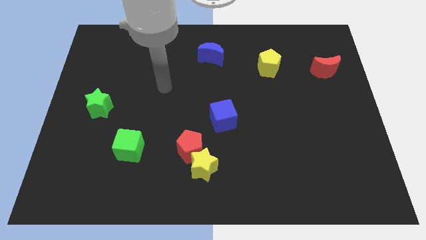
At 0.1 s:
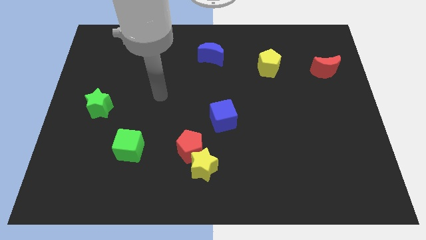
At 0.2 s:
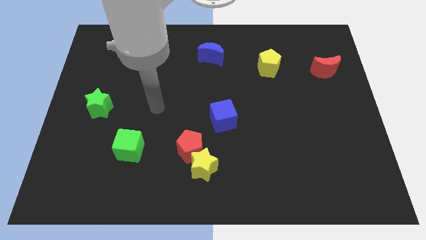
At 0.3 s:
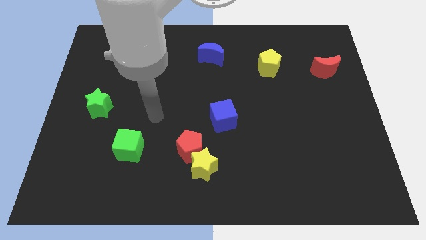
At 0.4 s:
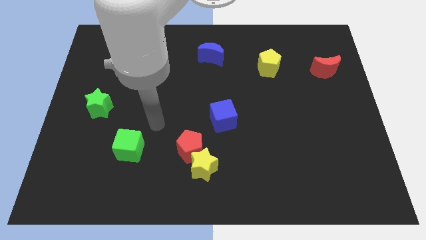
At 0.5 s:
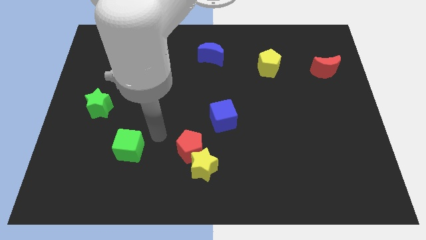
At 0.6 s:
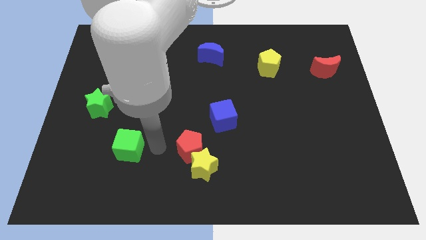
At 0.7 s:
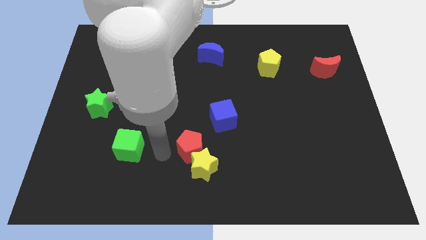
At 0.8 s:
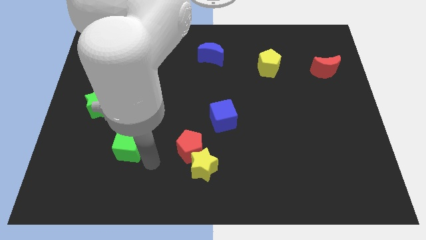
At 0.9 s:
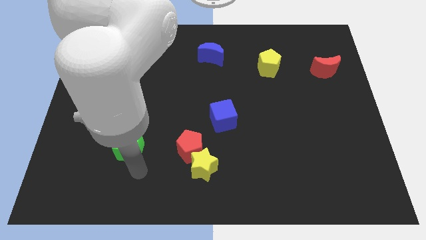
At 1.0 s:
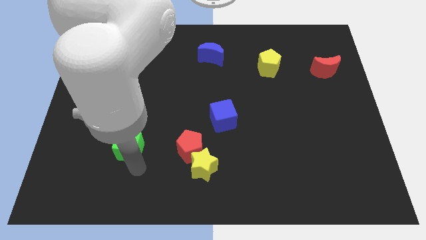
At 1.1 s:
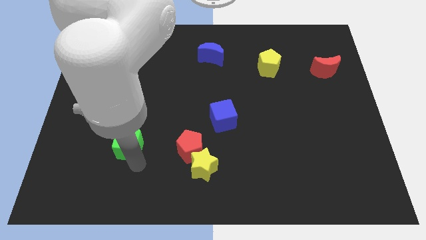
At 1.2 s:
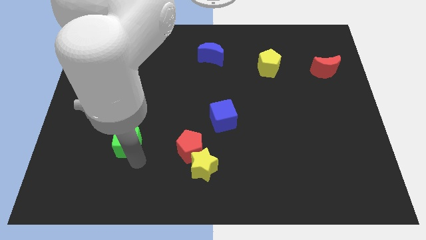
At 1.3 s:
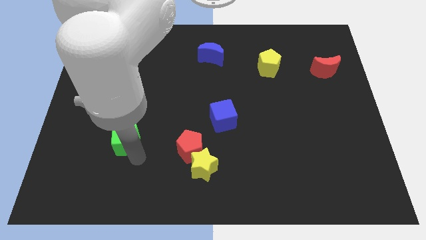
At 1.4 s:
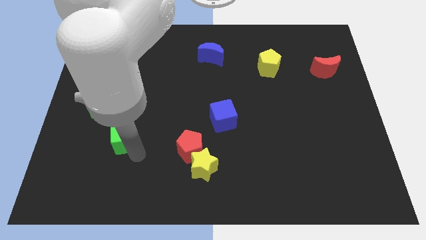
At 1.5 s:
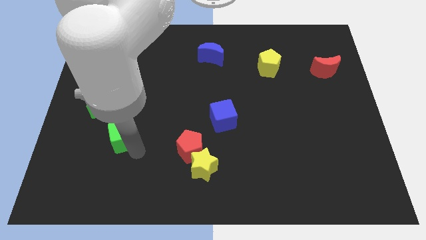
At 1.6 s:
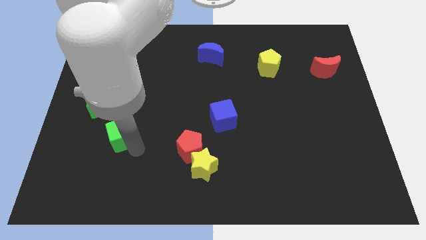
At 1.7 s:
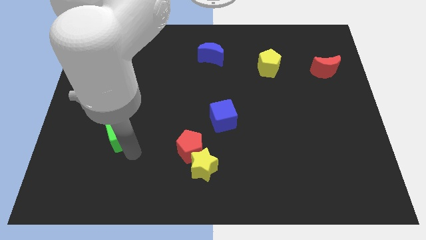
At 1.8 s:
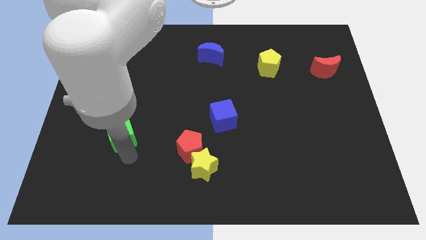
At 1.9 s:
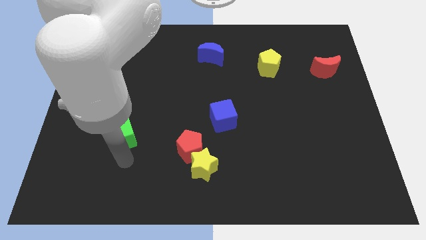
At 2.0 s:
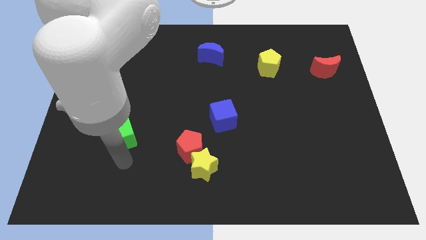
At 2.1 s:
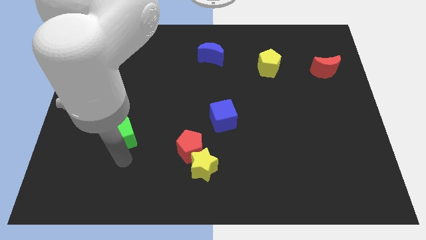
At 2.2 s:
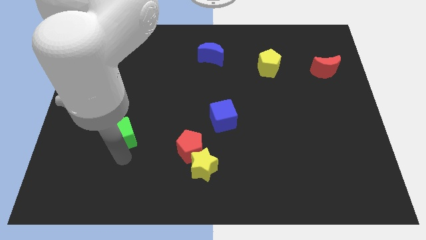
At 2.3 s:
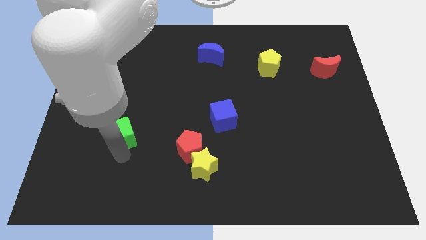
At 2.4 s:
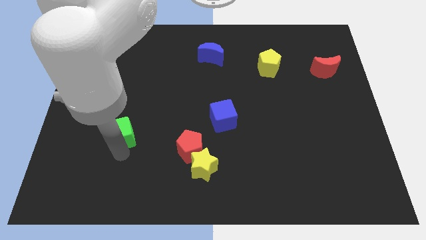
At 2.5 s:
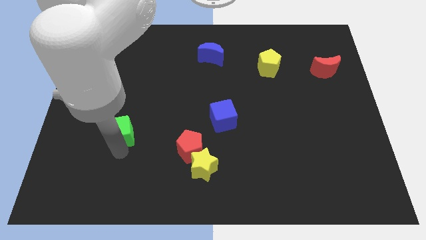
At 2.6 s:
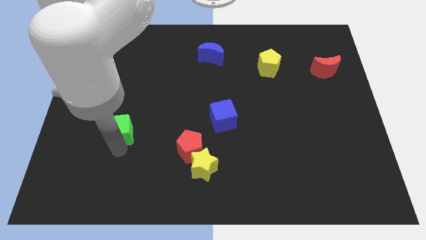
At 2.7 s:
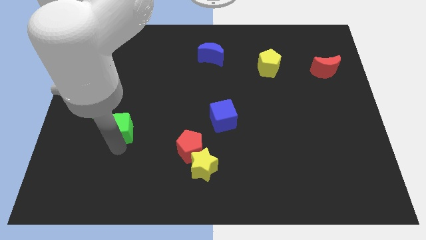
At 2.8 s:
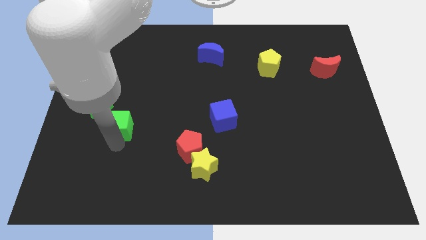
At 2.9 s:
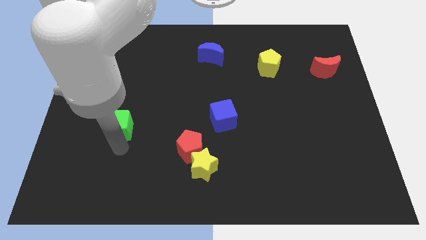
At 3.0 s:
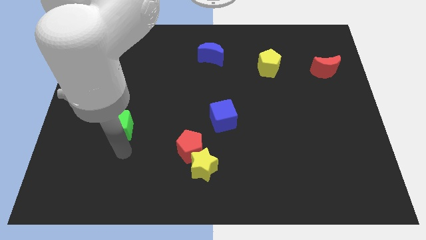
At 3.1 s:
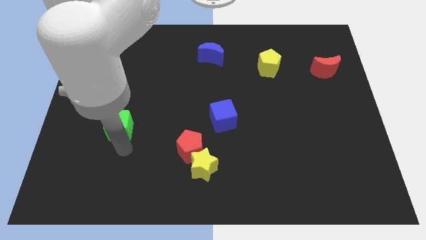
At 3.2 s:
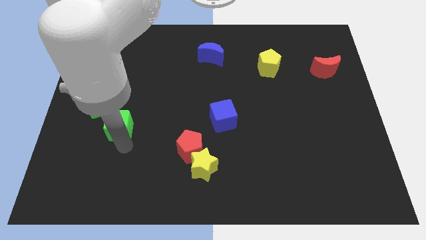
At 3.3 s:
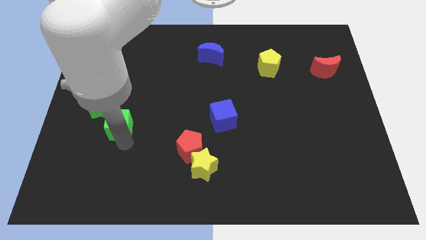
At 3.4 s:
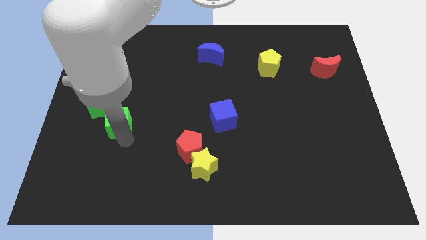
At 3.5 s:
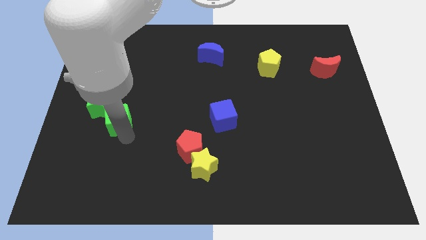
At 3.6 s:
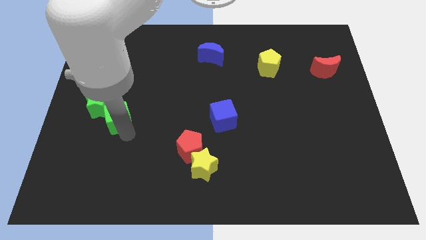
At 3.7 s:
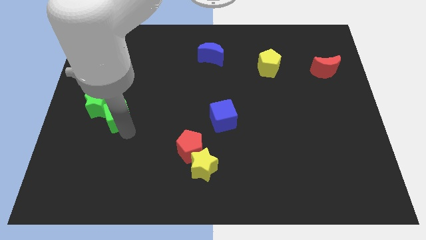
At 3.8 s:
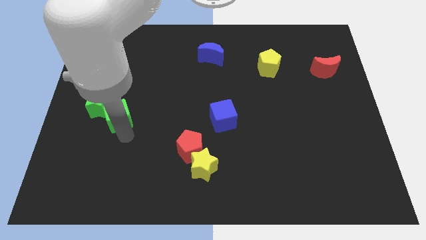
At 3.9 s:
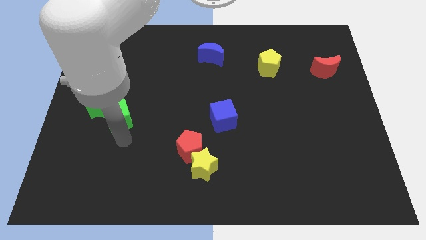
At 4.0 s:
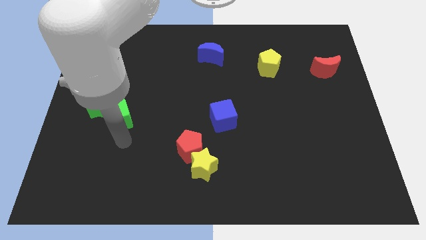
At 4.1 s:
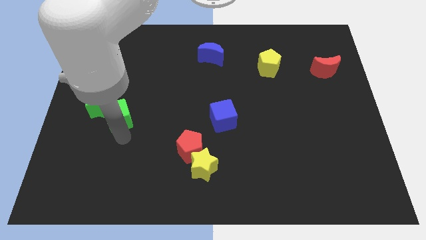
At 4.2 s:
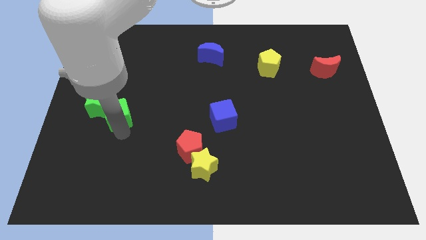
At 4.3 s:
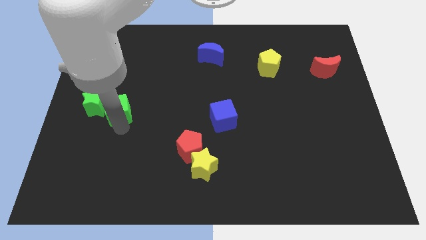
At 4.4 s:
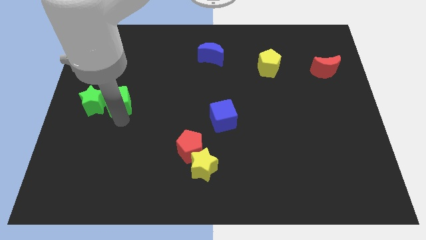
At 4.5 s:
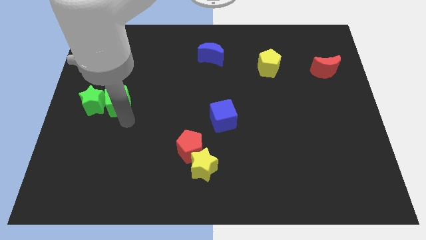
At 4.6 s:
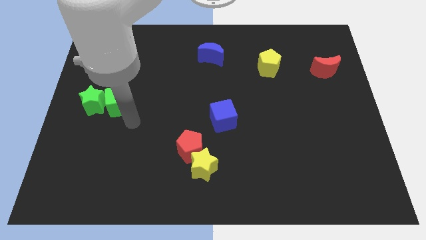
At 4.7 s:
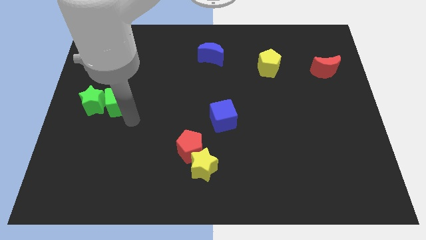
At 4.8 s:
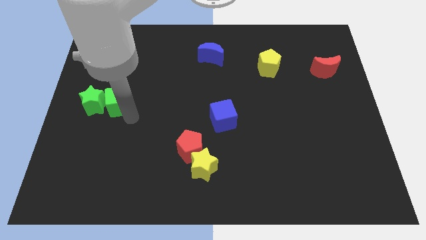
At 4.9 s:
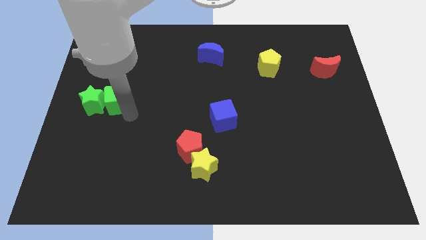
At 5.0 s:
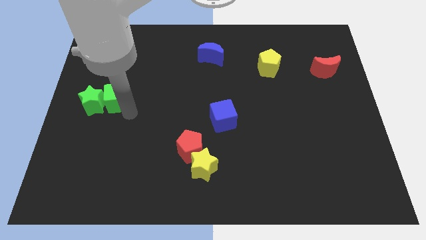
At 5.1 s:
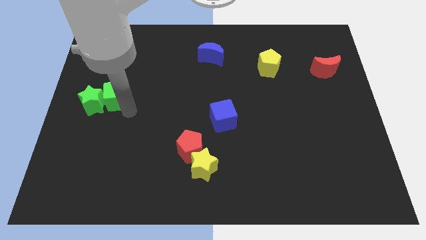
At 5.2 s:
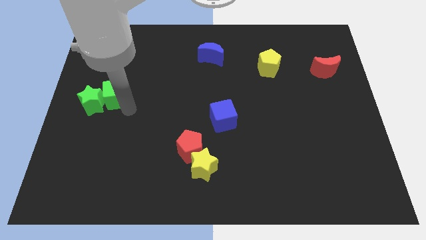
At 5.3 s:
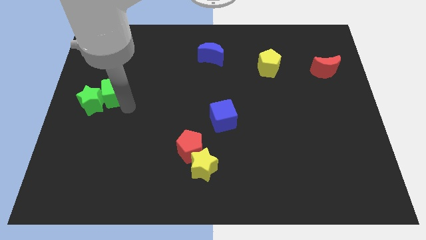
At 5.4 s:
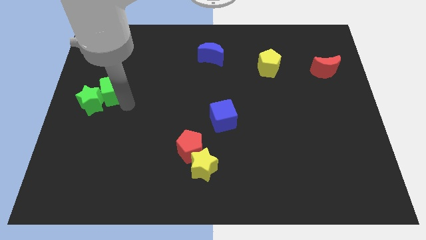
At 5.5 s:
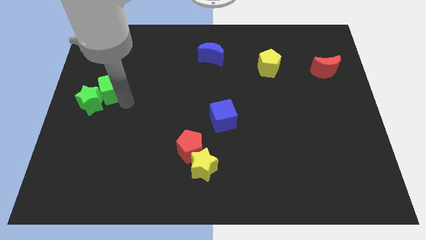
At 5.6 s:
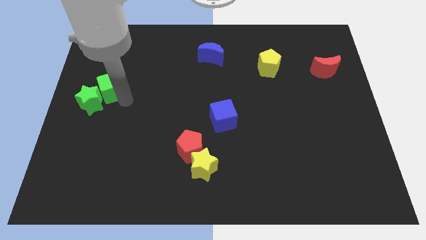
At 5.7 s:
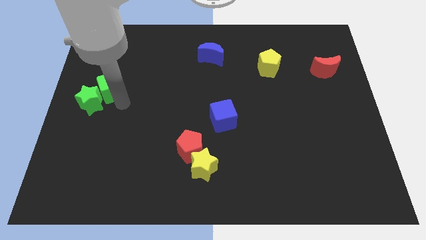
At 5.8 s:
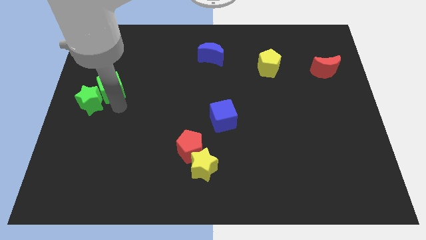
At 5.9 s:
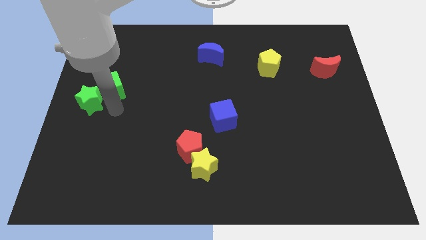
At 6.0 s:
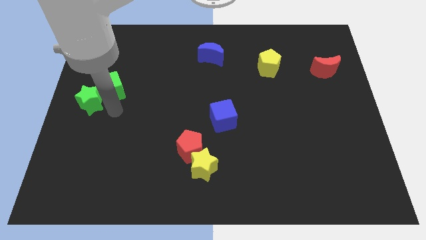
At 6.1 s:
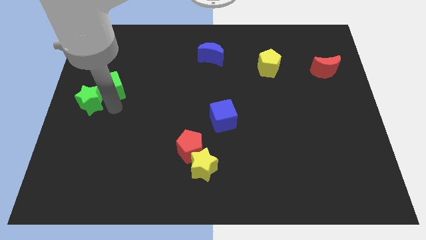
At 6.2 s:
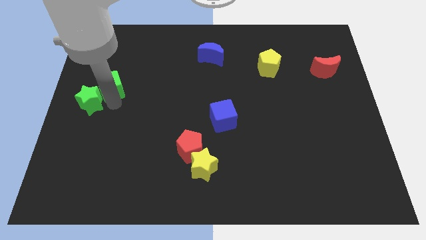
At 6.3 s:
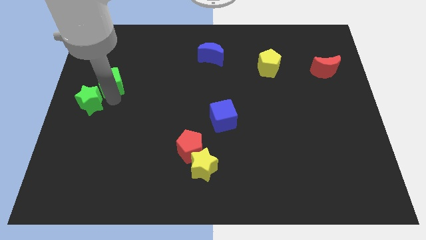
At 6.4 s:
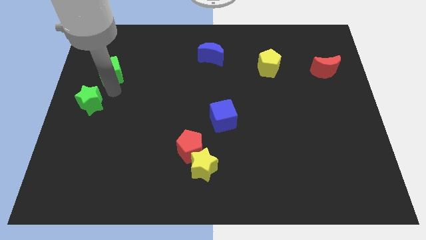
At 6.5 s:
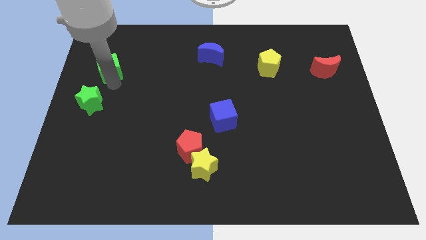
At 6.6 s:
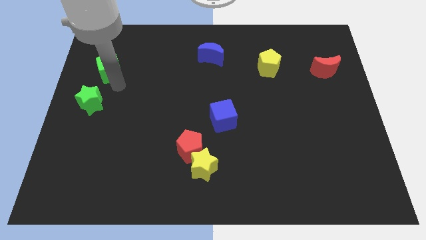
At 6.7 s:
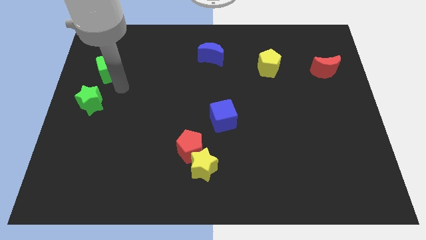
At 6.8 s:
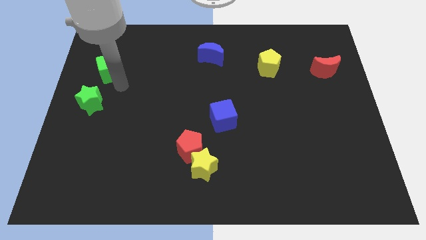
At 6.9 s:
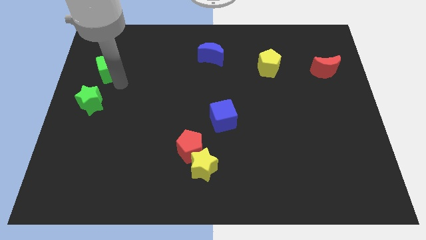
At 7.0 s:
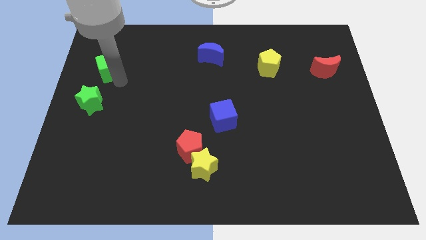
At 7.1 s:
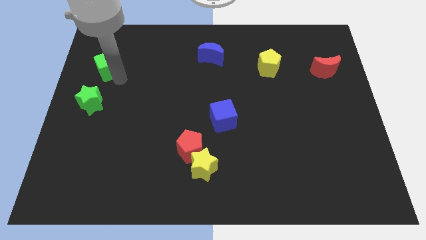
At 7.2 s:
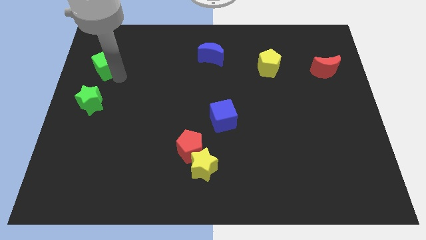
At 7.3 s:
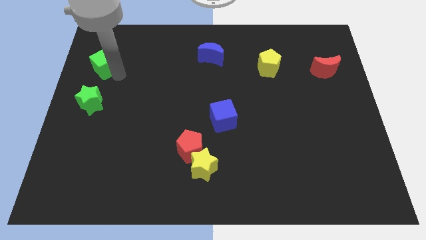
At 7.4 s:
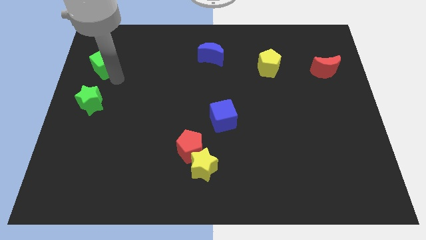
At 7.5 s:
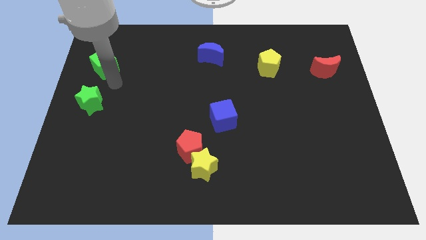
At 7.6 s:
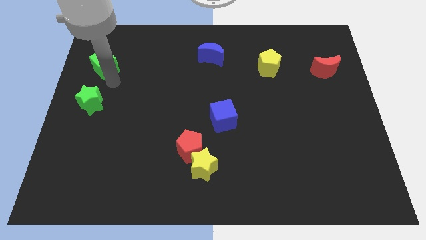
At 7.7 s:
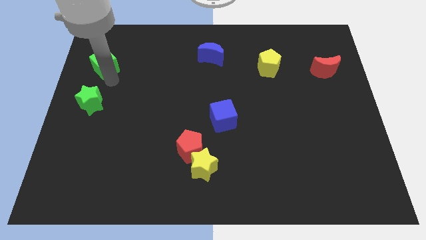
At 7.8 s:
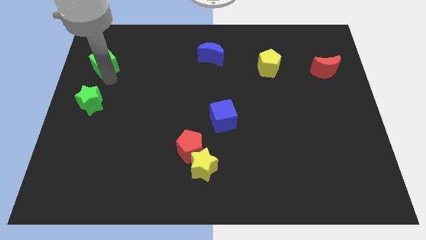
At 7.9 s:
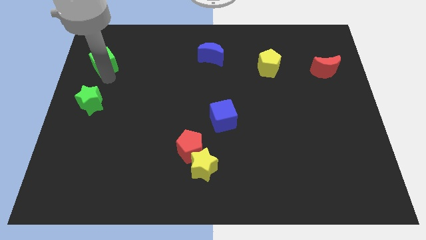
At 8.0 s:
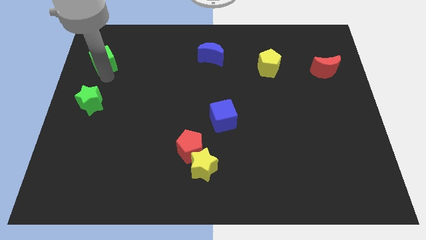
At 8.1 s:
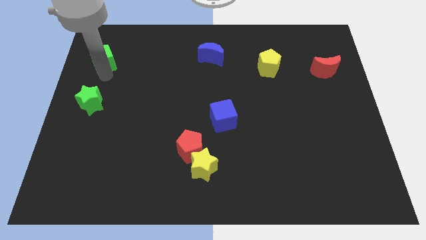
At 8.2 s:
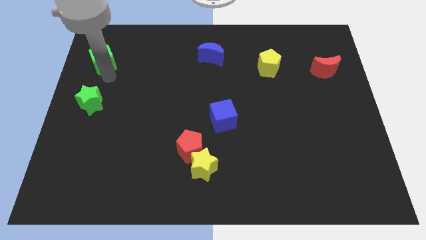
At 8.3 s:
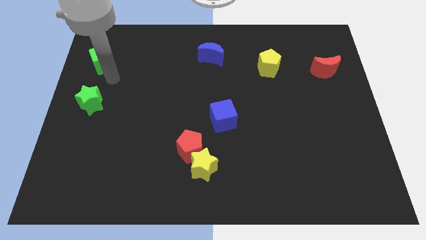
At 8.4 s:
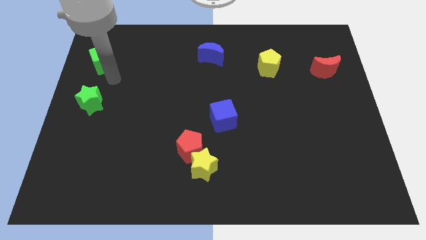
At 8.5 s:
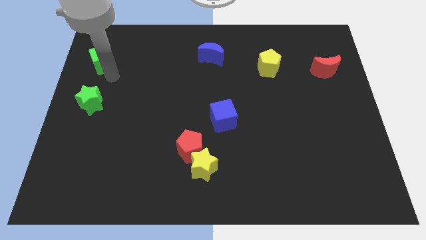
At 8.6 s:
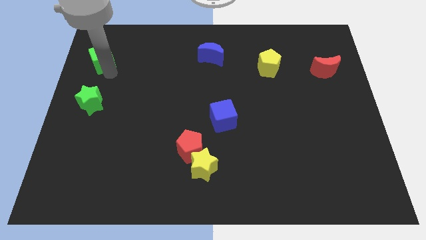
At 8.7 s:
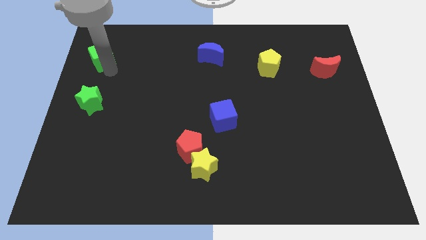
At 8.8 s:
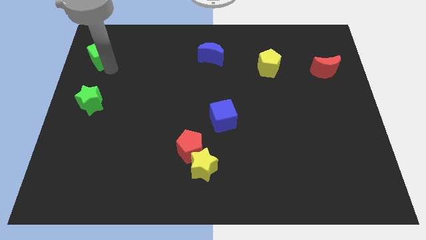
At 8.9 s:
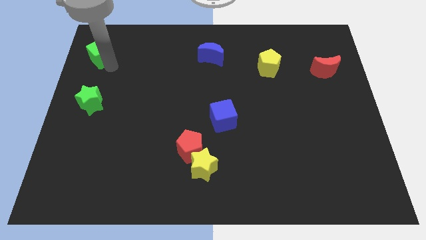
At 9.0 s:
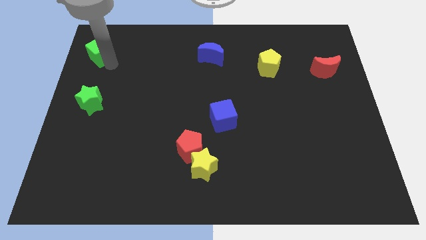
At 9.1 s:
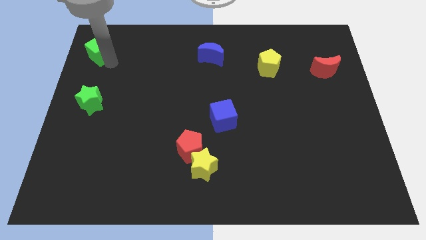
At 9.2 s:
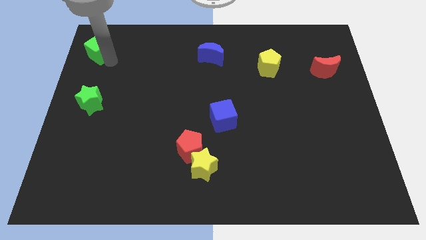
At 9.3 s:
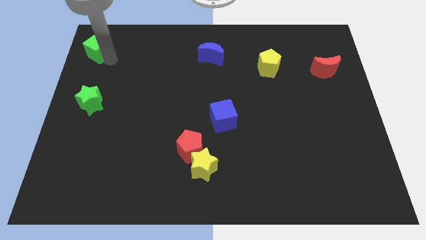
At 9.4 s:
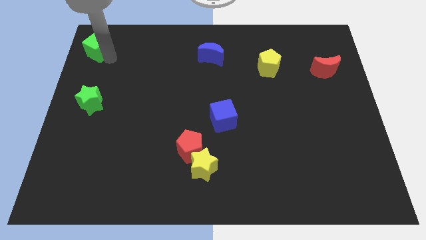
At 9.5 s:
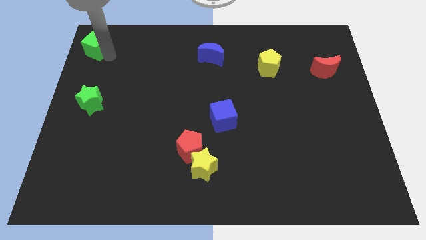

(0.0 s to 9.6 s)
move the green cube to the top left corner
